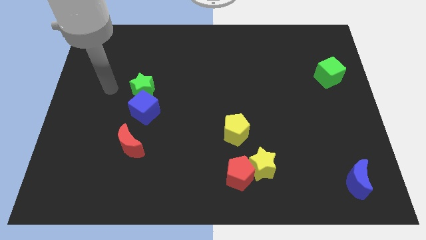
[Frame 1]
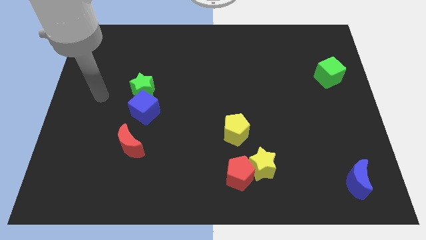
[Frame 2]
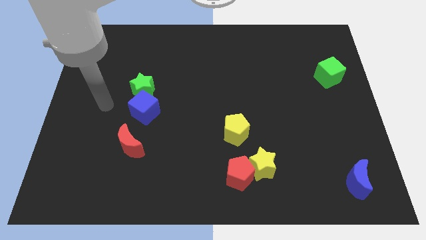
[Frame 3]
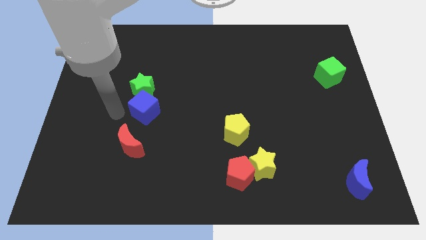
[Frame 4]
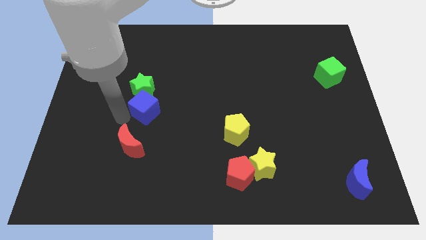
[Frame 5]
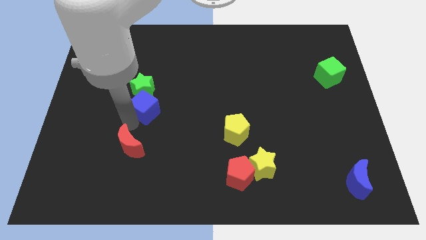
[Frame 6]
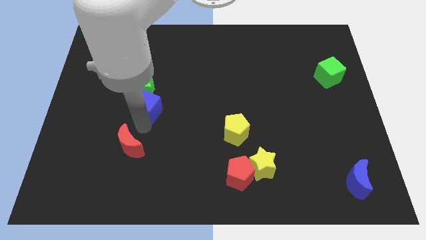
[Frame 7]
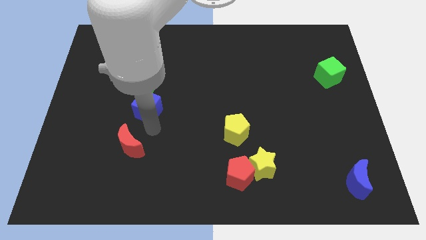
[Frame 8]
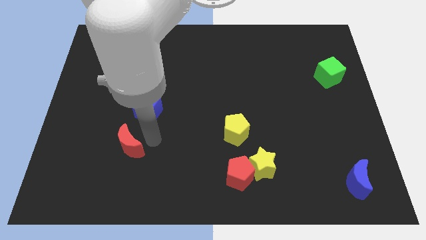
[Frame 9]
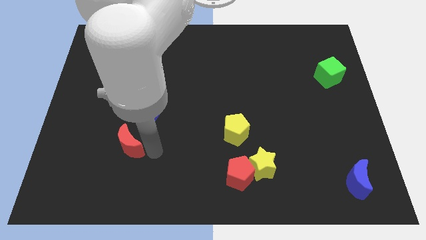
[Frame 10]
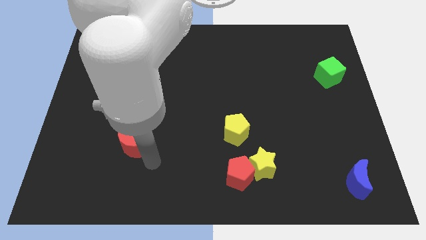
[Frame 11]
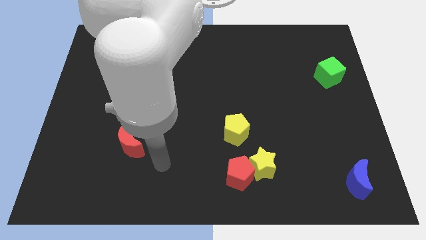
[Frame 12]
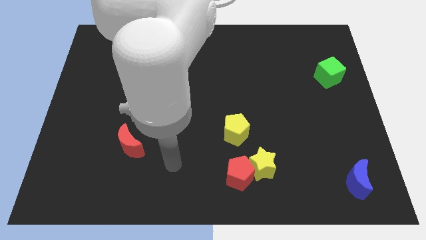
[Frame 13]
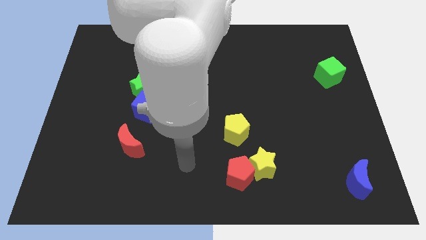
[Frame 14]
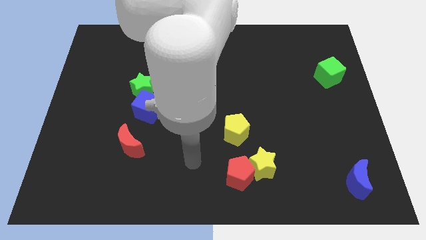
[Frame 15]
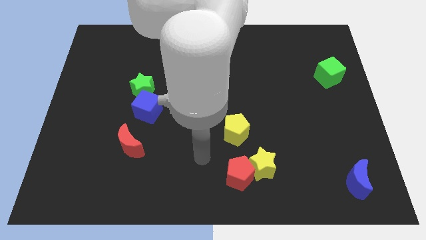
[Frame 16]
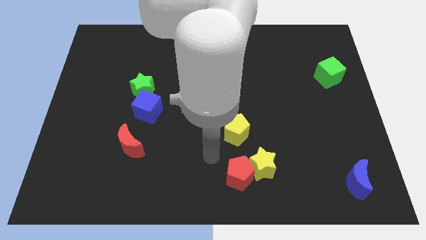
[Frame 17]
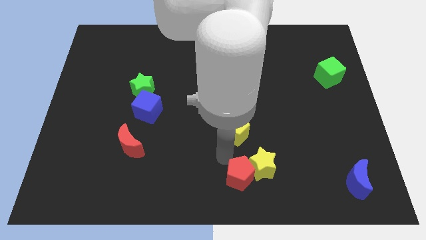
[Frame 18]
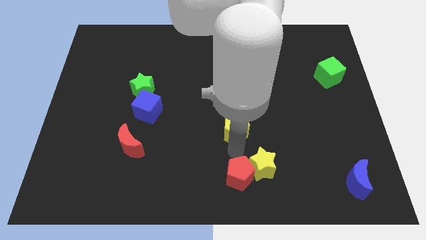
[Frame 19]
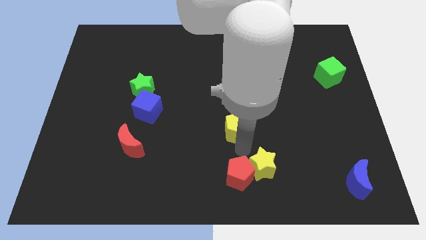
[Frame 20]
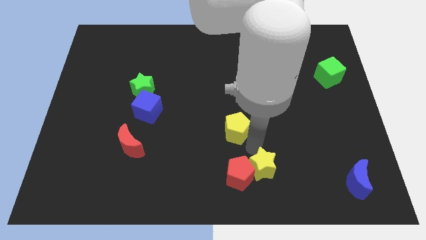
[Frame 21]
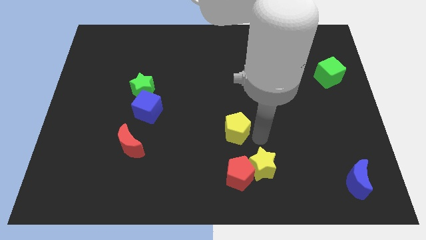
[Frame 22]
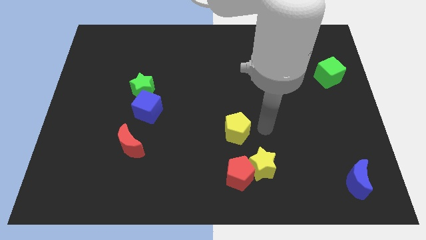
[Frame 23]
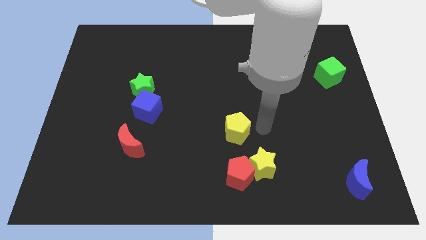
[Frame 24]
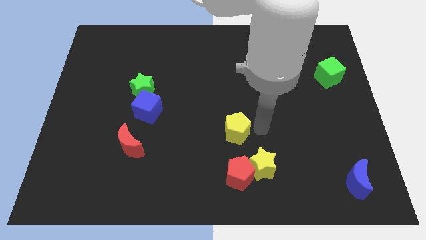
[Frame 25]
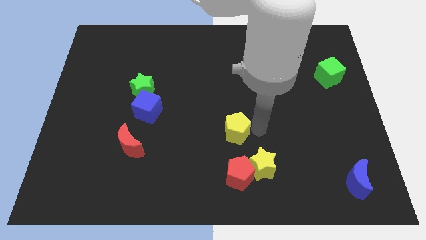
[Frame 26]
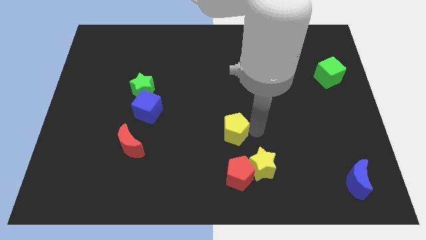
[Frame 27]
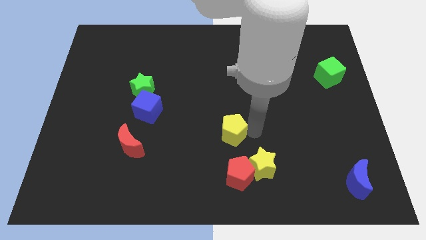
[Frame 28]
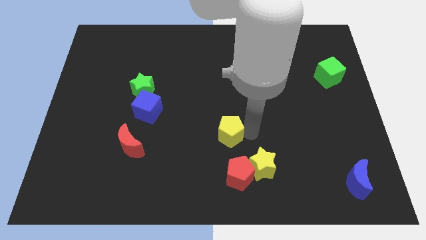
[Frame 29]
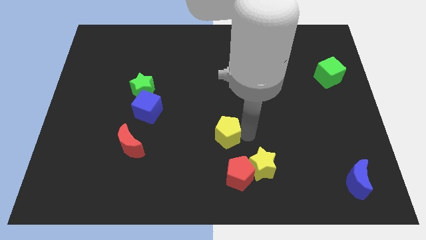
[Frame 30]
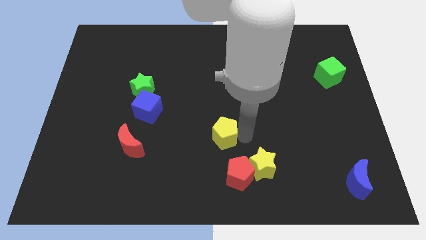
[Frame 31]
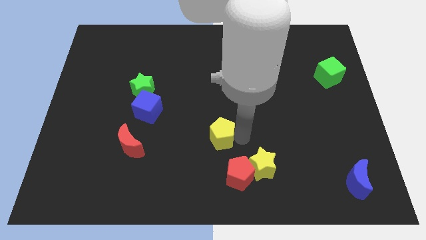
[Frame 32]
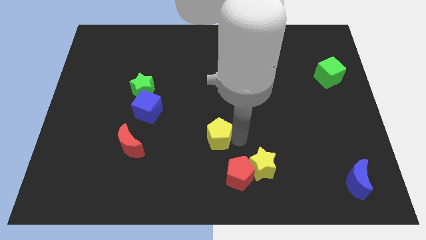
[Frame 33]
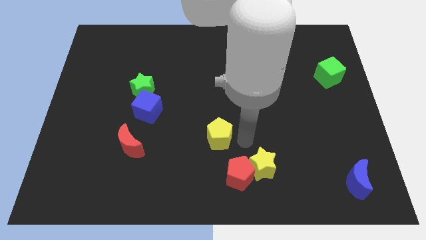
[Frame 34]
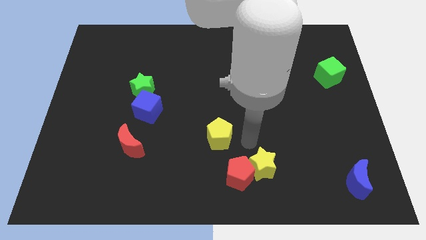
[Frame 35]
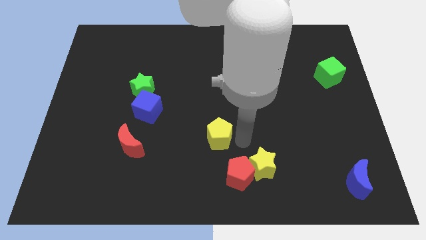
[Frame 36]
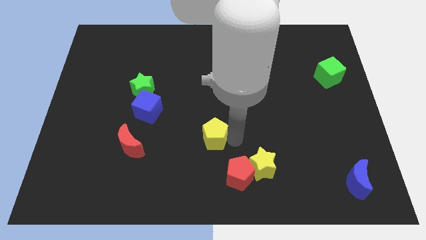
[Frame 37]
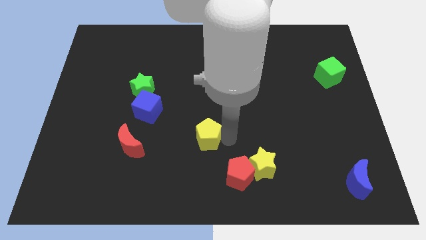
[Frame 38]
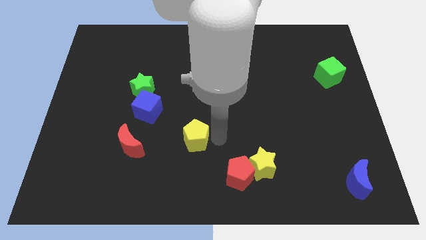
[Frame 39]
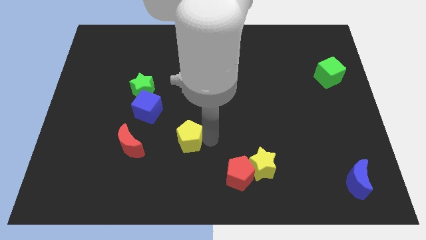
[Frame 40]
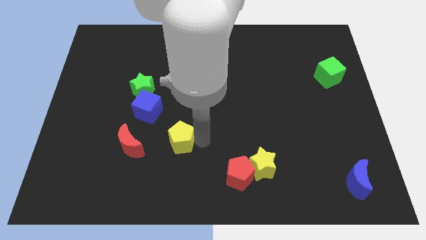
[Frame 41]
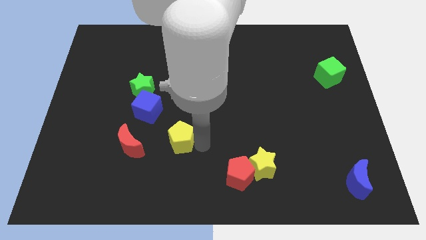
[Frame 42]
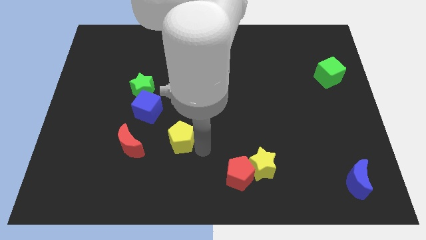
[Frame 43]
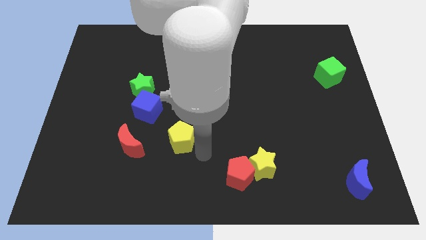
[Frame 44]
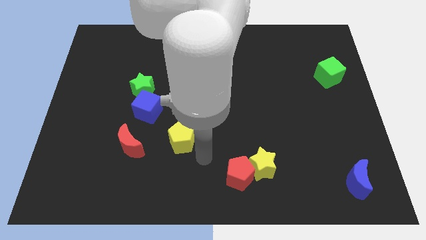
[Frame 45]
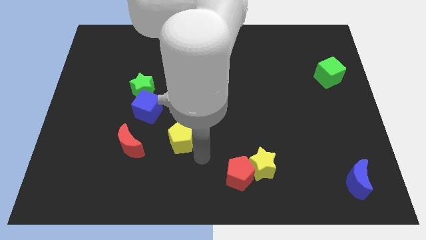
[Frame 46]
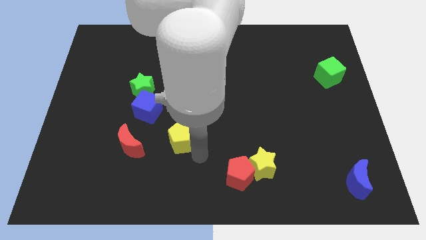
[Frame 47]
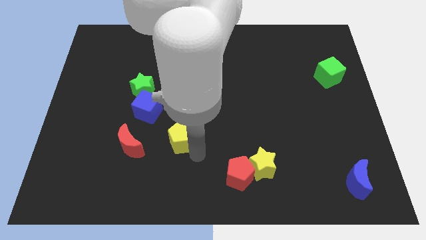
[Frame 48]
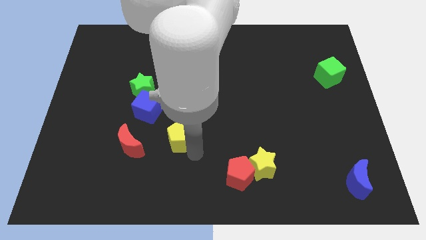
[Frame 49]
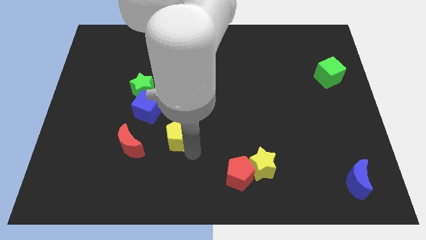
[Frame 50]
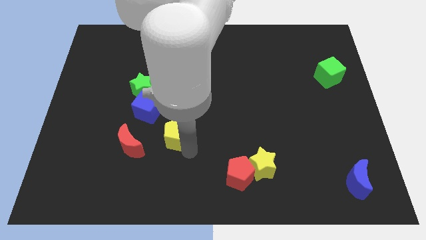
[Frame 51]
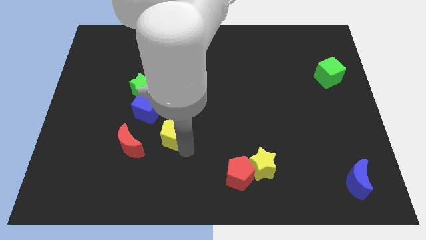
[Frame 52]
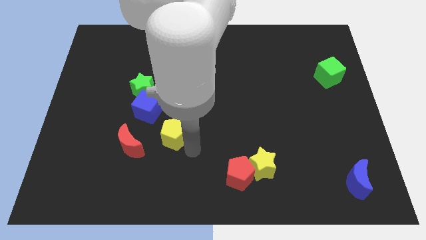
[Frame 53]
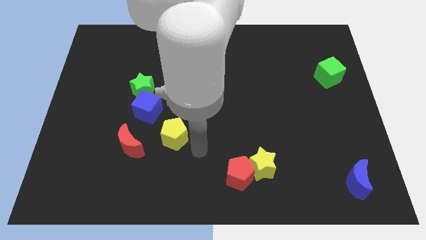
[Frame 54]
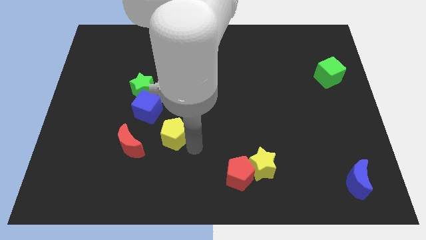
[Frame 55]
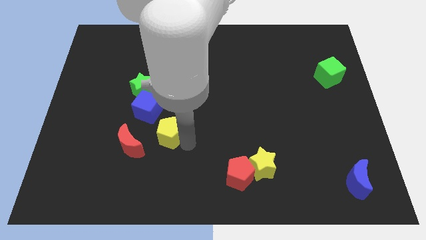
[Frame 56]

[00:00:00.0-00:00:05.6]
put the yellow pentagon diagonally up and to the right of the red moon

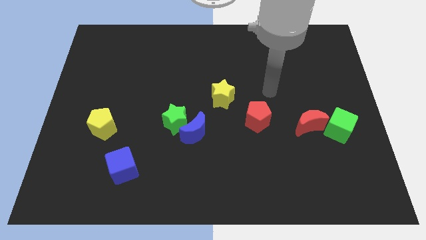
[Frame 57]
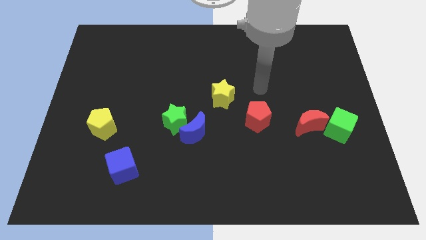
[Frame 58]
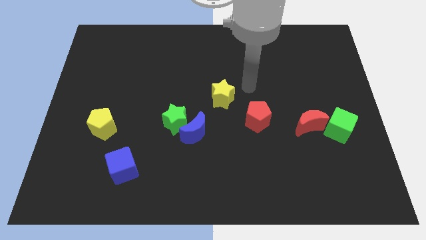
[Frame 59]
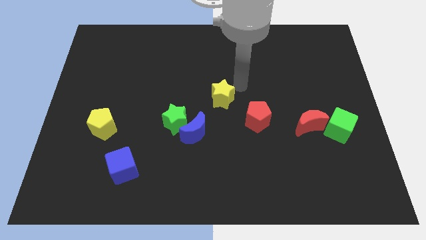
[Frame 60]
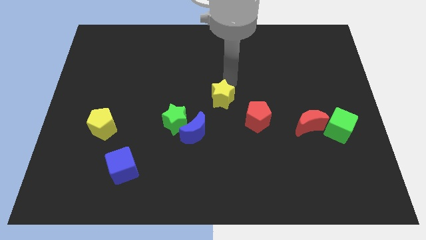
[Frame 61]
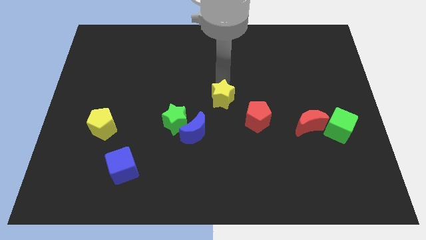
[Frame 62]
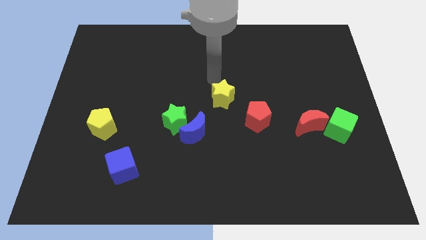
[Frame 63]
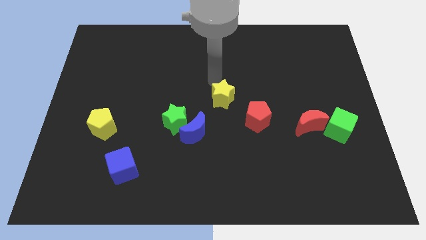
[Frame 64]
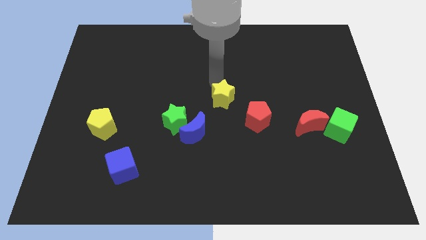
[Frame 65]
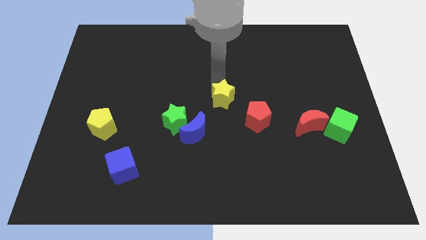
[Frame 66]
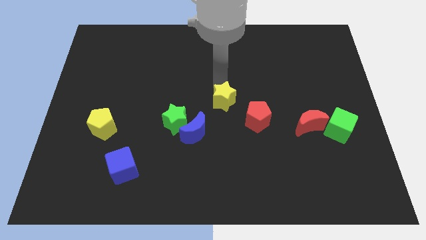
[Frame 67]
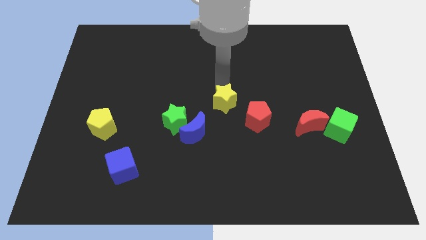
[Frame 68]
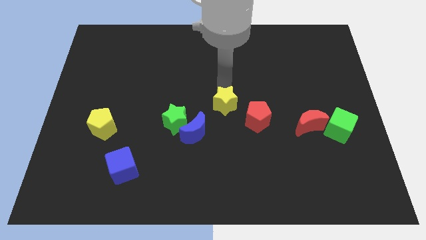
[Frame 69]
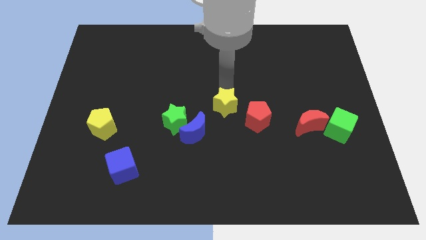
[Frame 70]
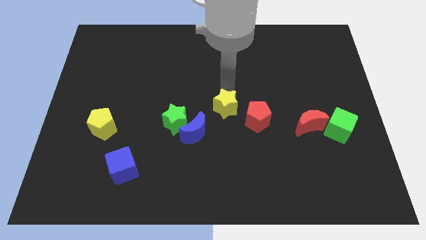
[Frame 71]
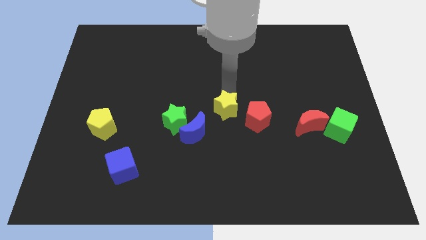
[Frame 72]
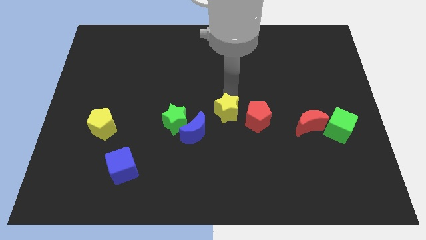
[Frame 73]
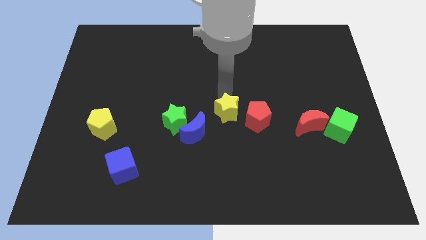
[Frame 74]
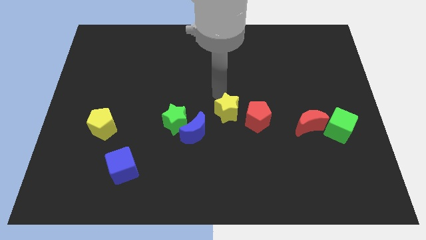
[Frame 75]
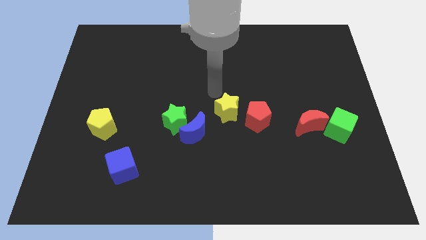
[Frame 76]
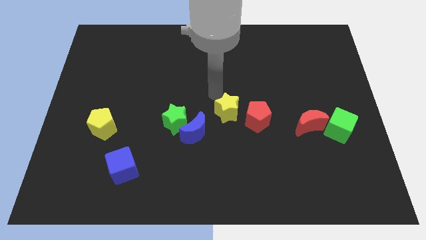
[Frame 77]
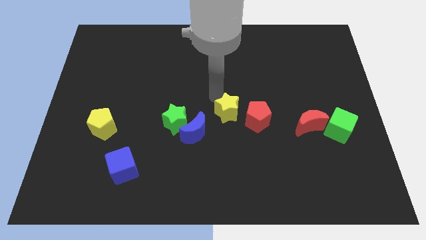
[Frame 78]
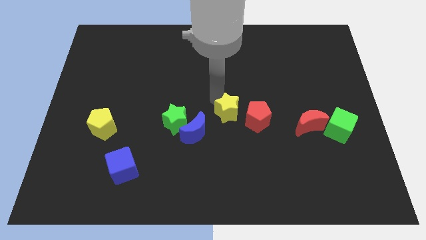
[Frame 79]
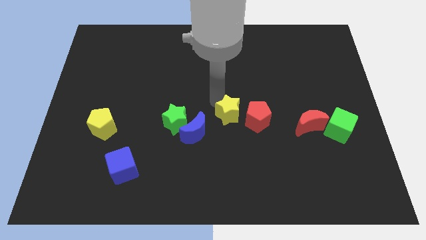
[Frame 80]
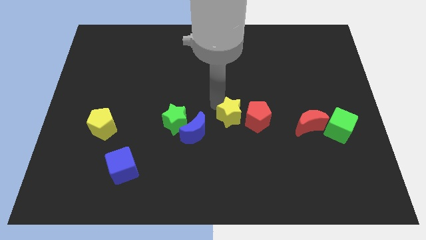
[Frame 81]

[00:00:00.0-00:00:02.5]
move the yellow star to the right side of the blue moon
